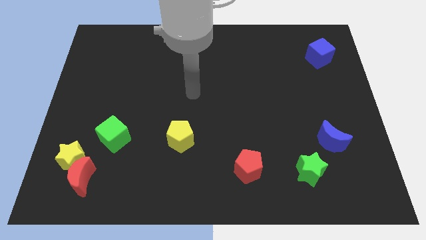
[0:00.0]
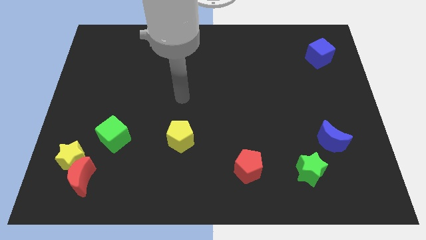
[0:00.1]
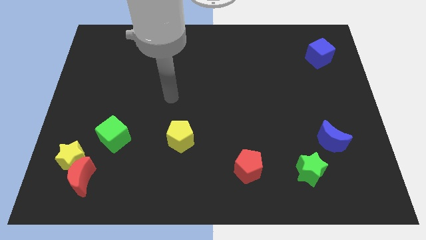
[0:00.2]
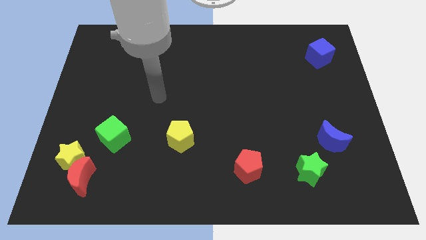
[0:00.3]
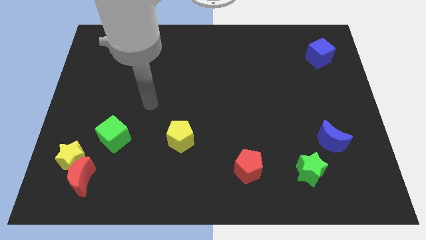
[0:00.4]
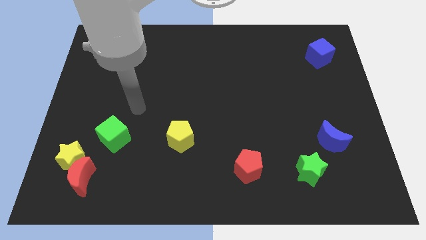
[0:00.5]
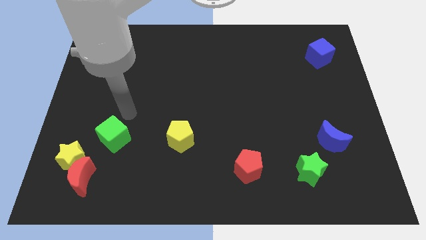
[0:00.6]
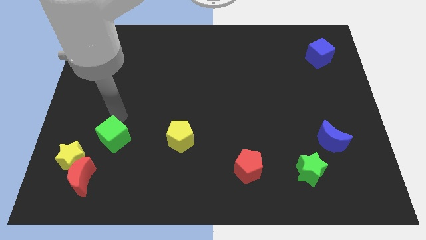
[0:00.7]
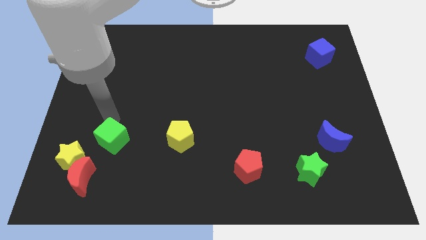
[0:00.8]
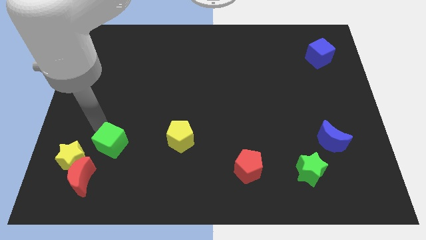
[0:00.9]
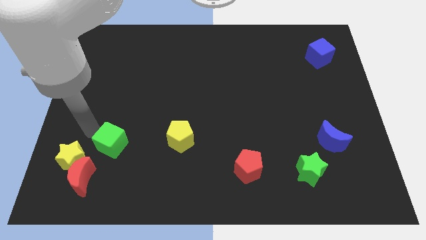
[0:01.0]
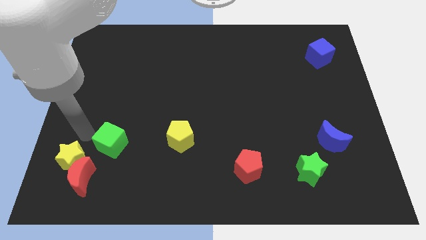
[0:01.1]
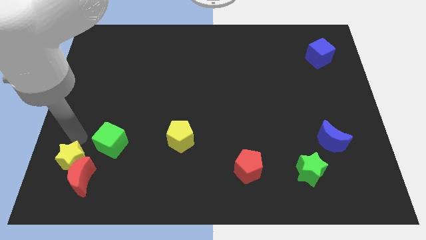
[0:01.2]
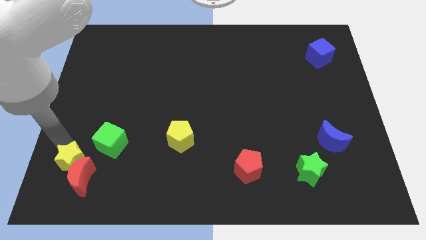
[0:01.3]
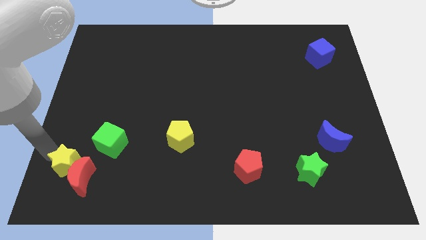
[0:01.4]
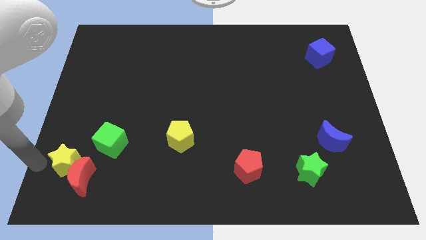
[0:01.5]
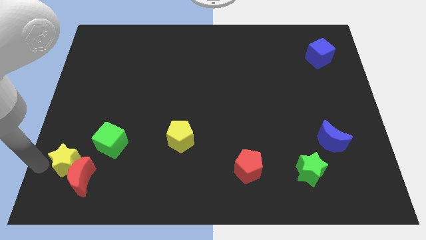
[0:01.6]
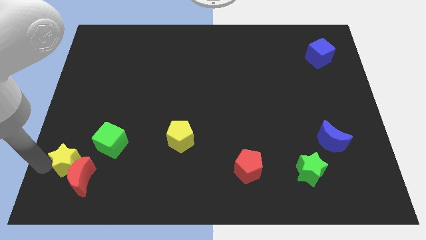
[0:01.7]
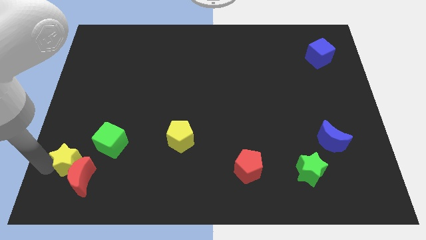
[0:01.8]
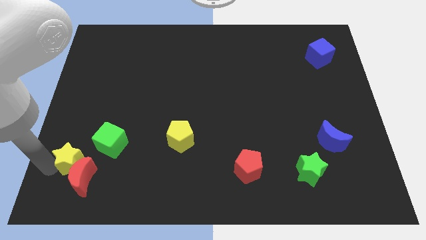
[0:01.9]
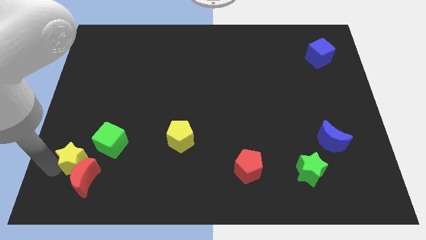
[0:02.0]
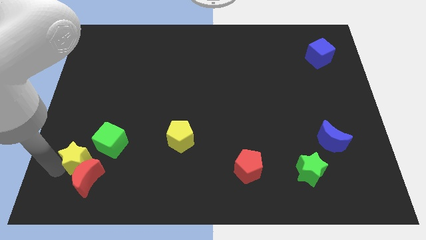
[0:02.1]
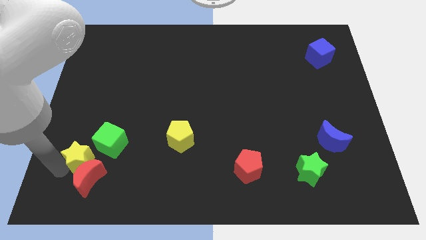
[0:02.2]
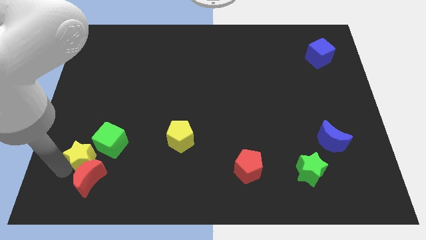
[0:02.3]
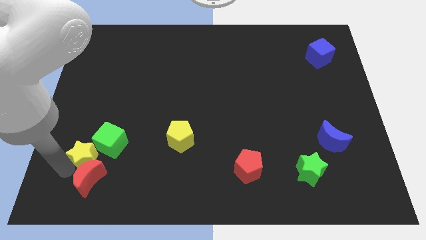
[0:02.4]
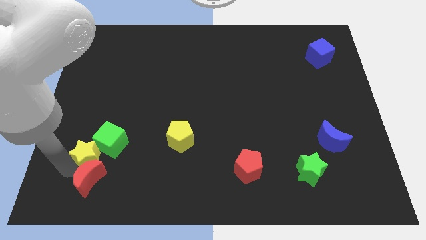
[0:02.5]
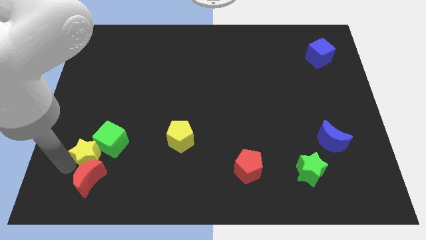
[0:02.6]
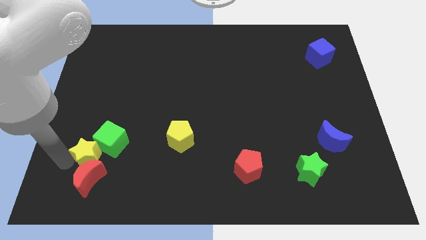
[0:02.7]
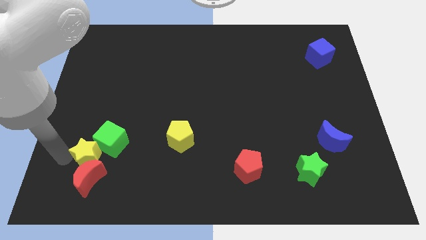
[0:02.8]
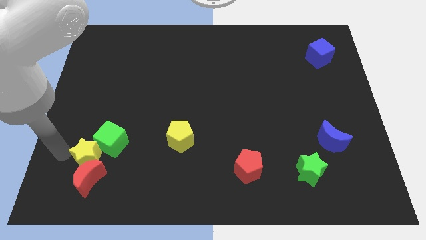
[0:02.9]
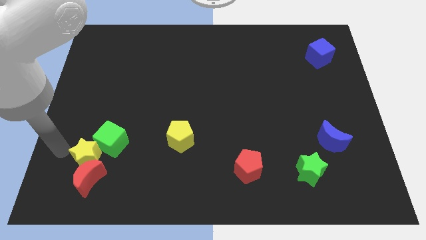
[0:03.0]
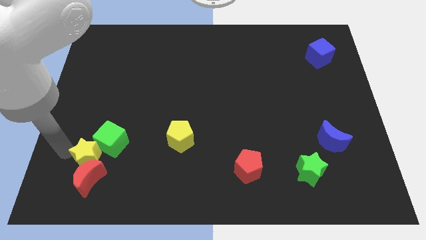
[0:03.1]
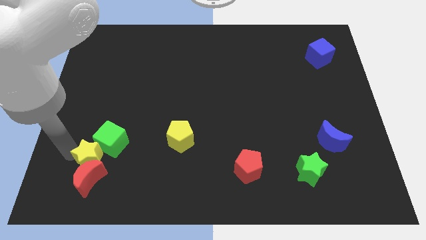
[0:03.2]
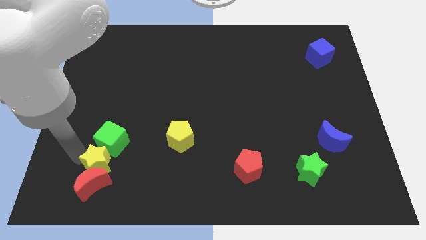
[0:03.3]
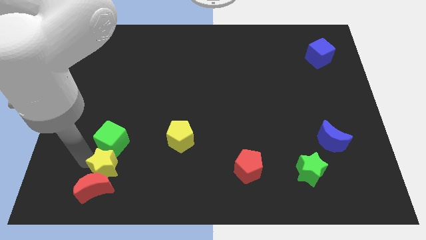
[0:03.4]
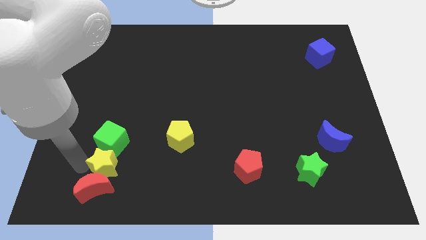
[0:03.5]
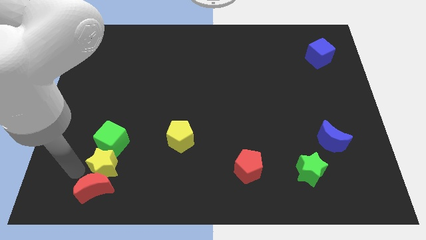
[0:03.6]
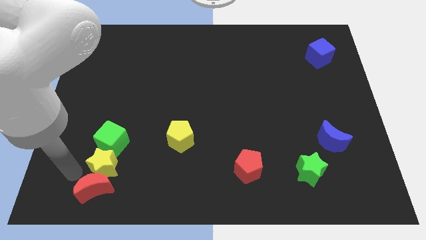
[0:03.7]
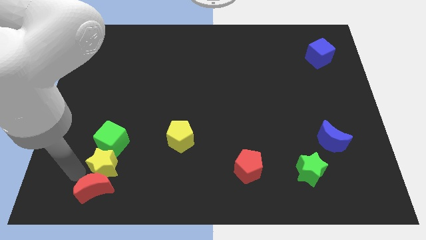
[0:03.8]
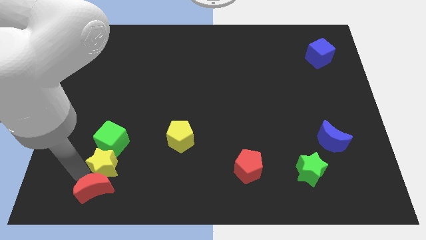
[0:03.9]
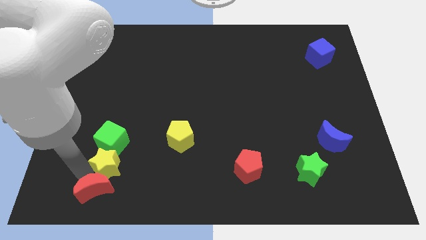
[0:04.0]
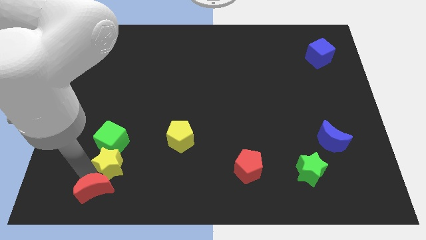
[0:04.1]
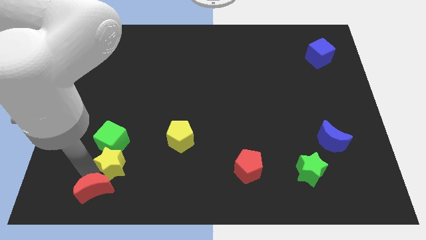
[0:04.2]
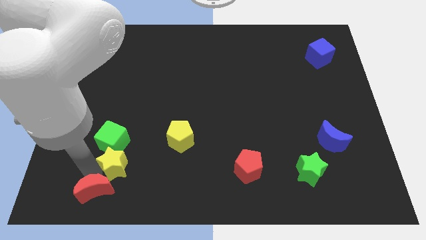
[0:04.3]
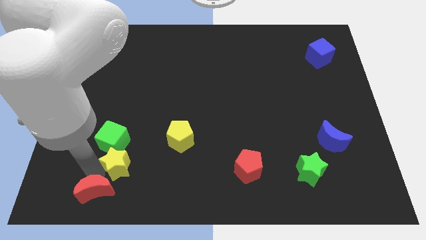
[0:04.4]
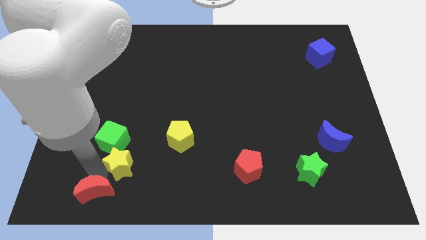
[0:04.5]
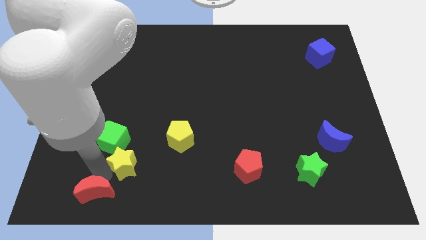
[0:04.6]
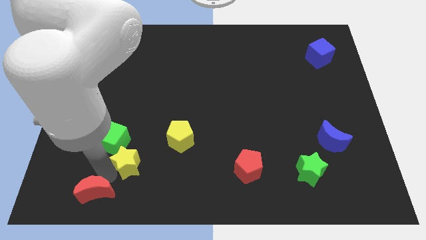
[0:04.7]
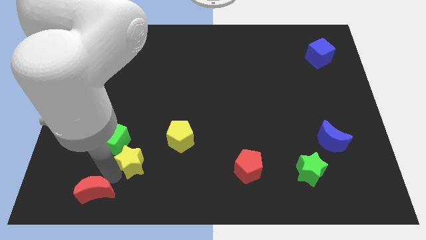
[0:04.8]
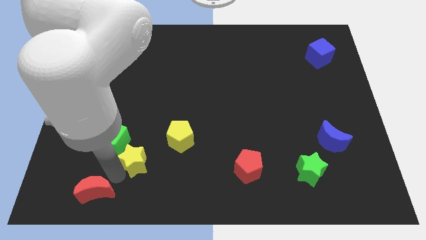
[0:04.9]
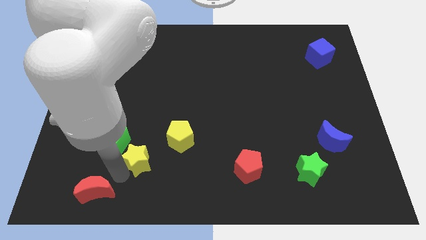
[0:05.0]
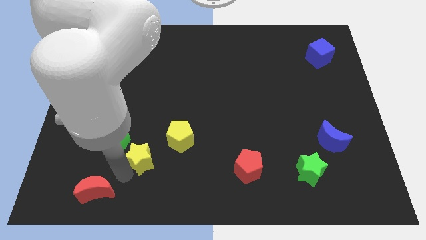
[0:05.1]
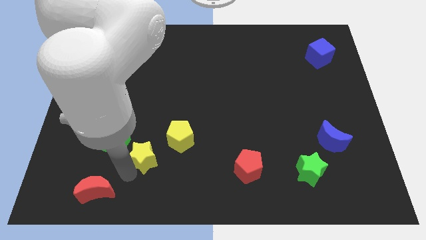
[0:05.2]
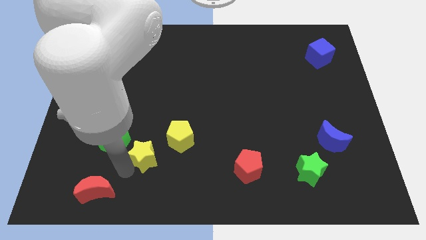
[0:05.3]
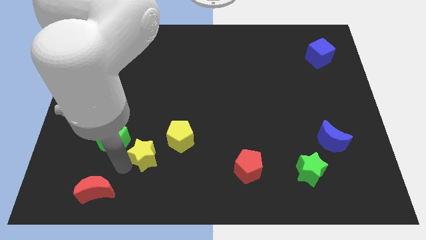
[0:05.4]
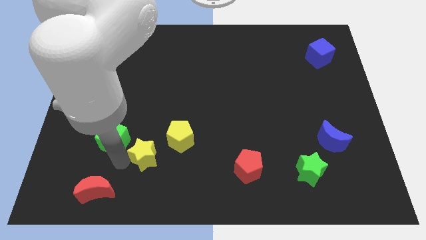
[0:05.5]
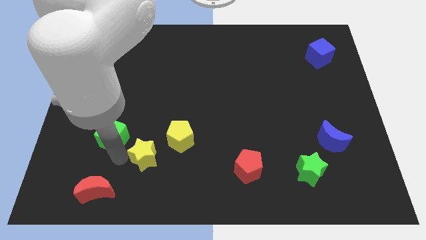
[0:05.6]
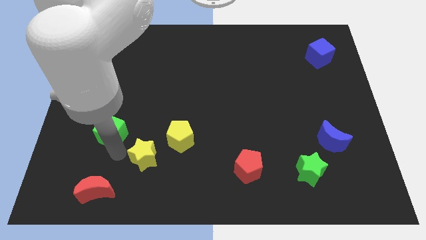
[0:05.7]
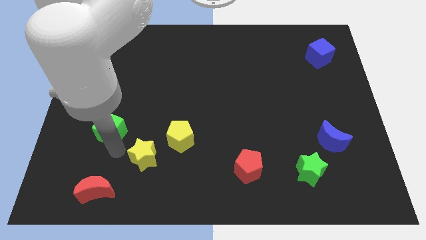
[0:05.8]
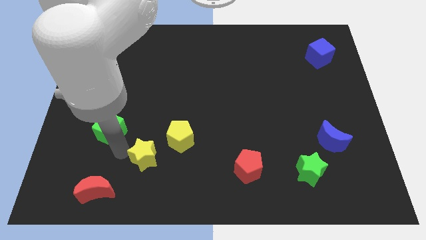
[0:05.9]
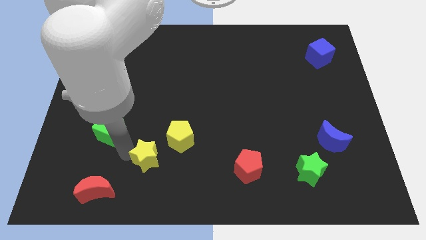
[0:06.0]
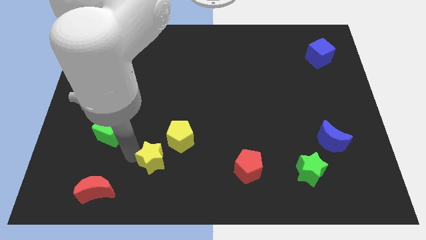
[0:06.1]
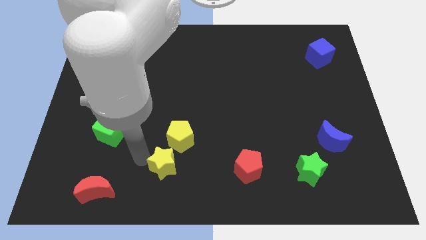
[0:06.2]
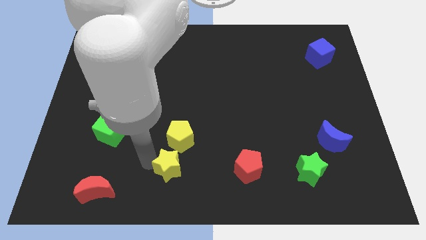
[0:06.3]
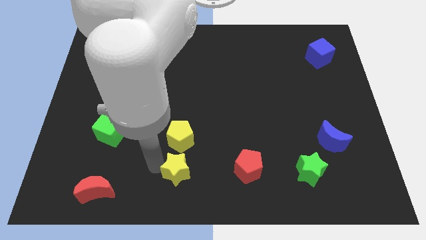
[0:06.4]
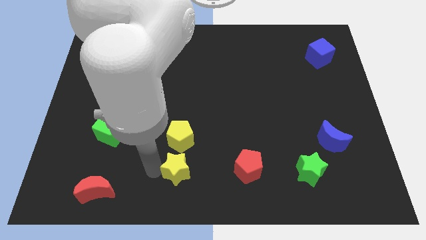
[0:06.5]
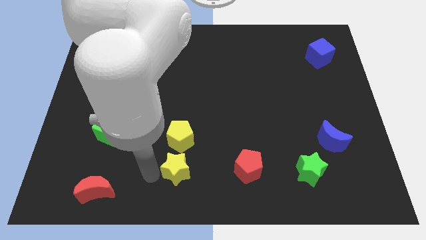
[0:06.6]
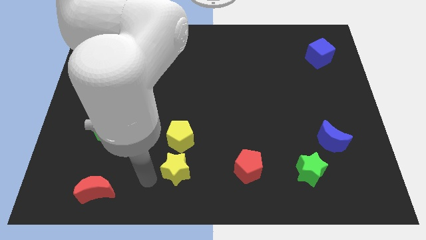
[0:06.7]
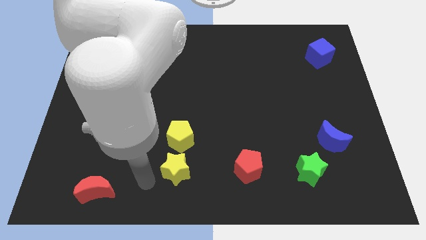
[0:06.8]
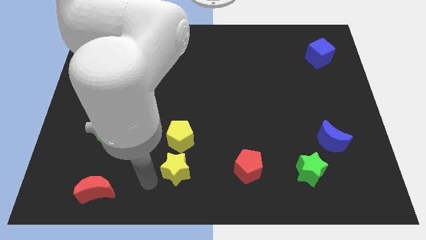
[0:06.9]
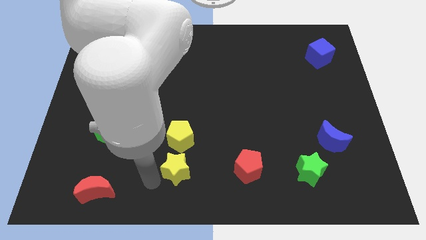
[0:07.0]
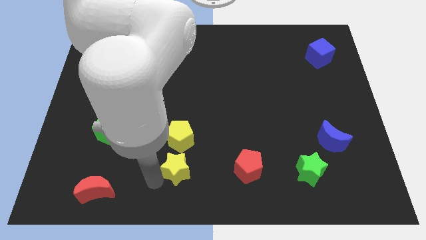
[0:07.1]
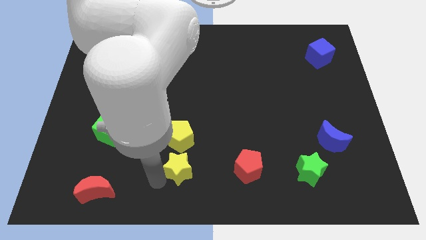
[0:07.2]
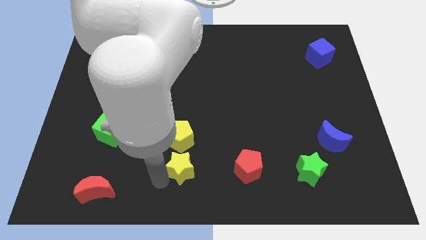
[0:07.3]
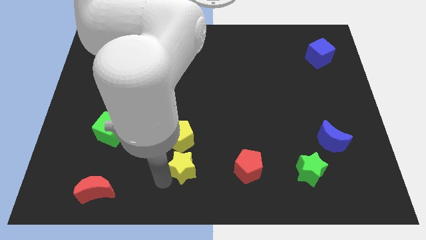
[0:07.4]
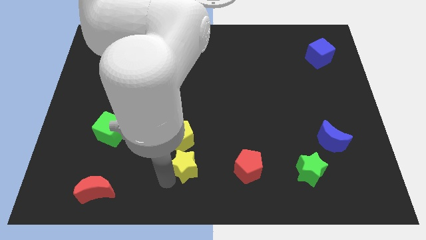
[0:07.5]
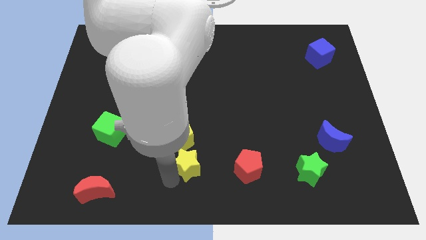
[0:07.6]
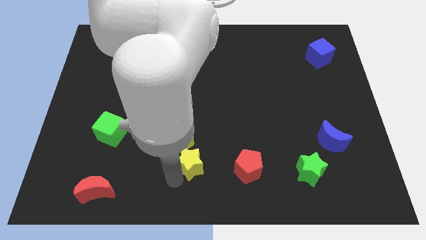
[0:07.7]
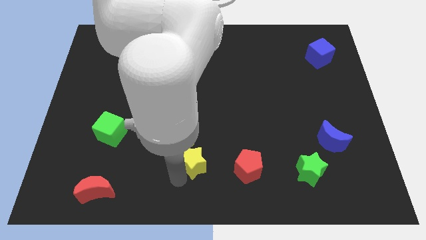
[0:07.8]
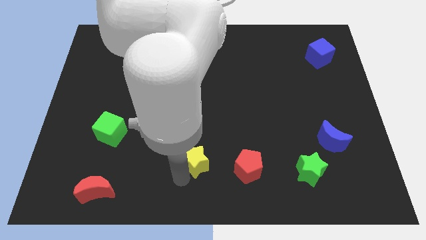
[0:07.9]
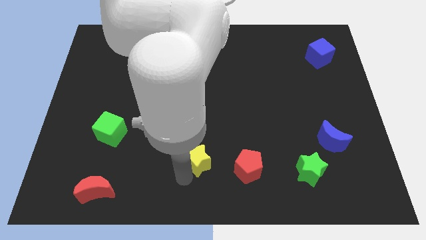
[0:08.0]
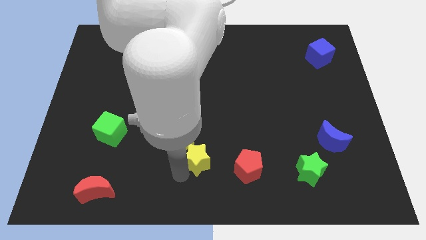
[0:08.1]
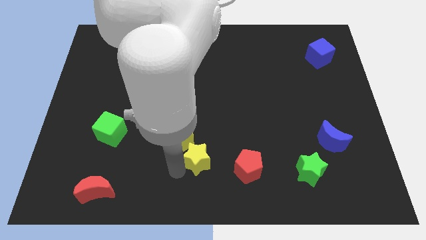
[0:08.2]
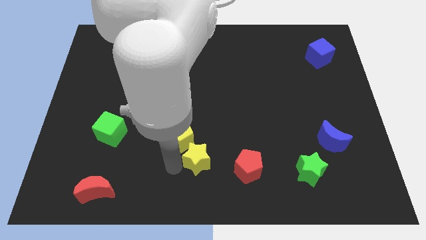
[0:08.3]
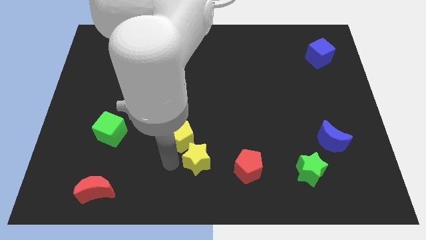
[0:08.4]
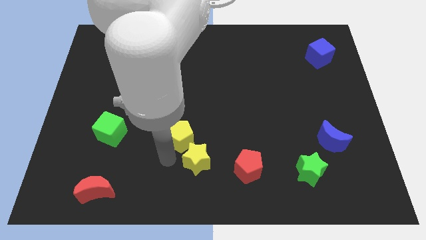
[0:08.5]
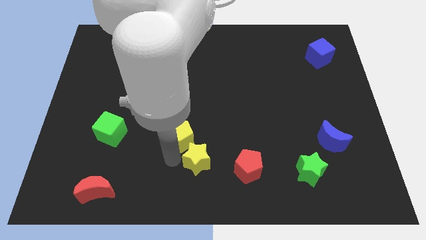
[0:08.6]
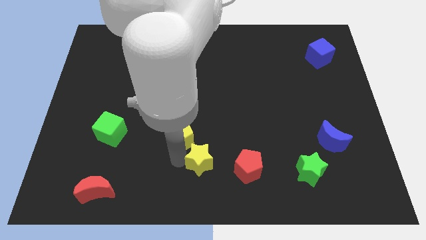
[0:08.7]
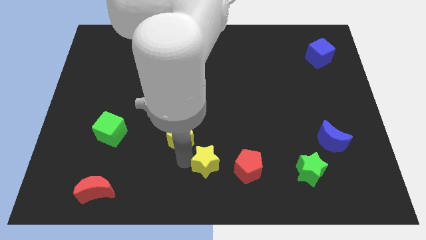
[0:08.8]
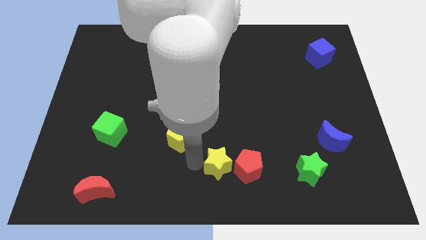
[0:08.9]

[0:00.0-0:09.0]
push the yellow star to the red pentagon
